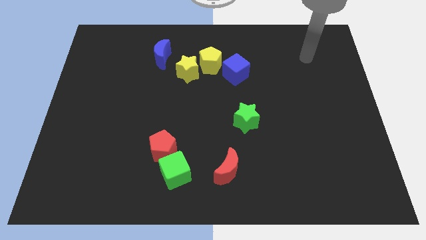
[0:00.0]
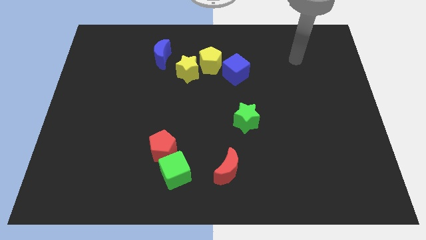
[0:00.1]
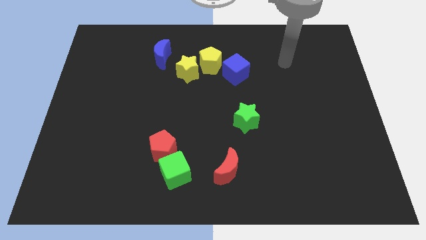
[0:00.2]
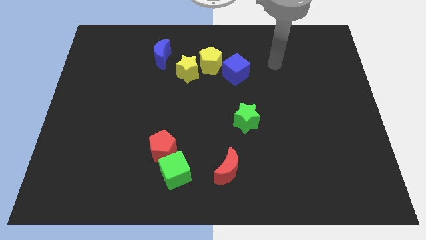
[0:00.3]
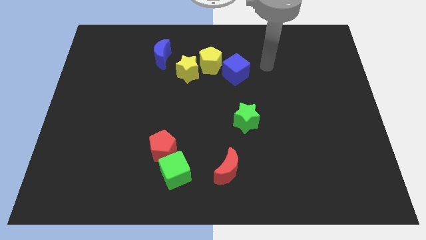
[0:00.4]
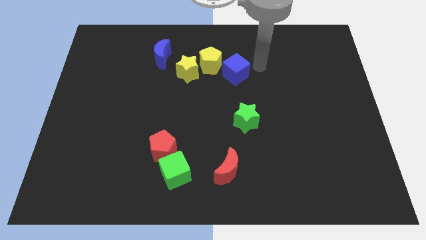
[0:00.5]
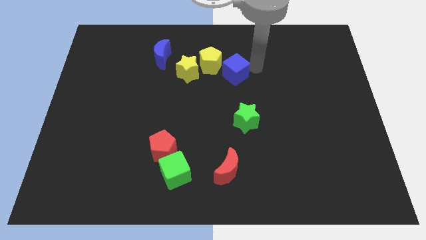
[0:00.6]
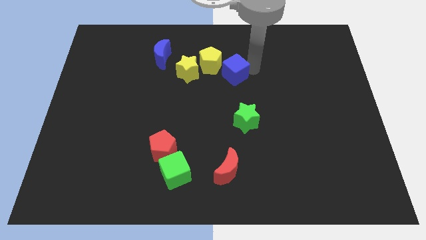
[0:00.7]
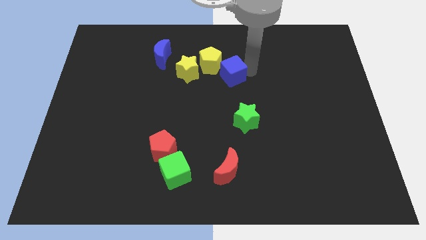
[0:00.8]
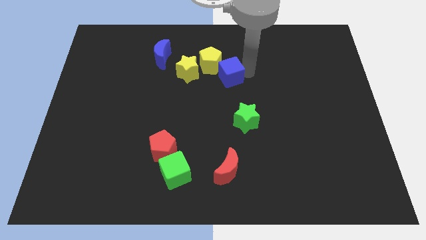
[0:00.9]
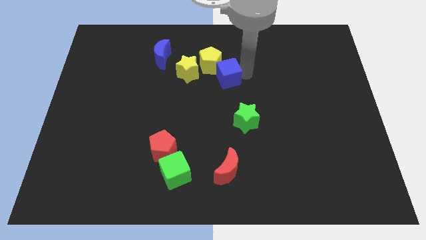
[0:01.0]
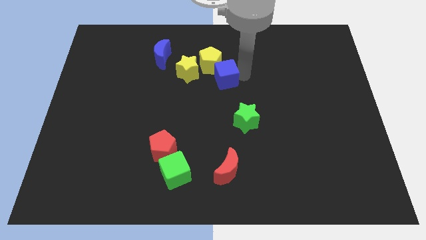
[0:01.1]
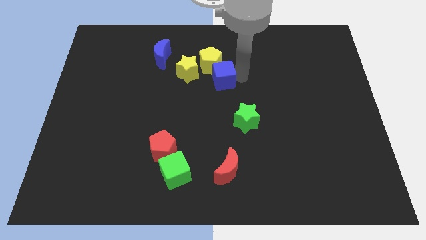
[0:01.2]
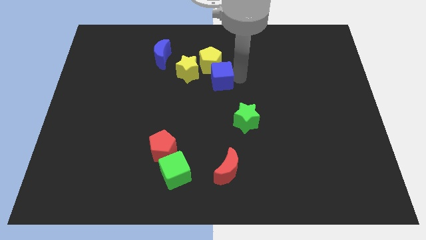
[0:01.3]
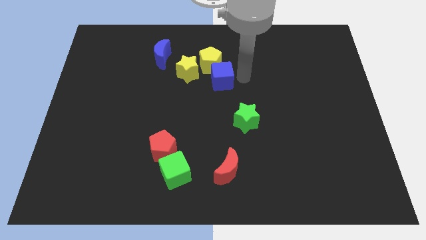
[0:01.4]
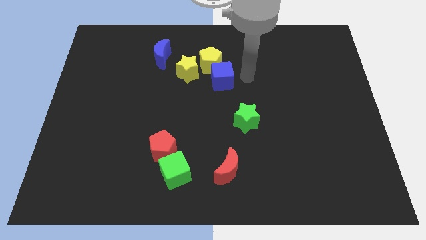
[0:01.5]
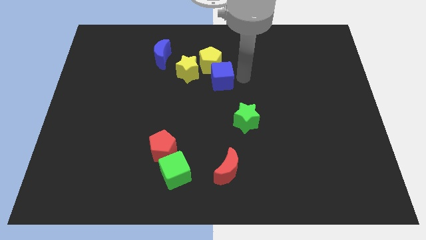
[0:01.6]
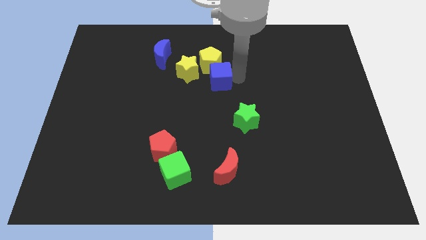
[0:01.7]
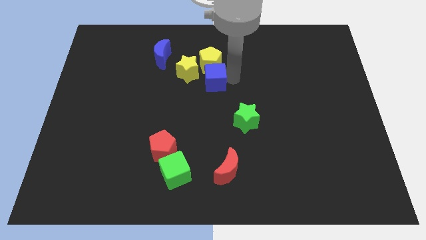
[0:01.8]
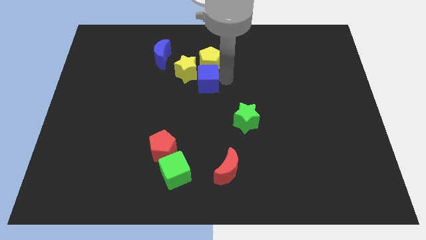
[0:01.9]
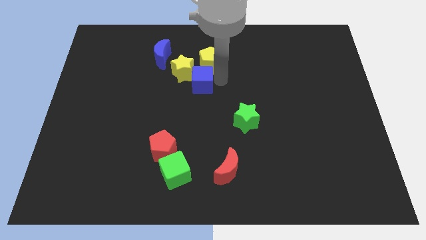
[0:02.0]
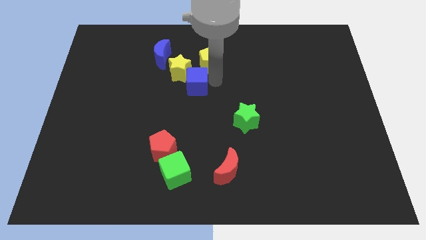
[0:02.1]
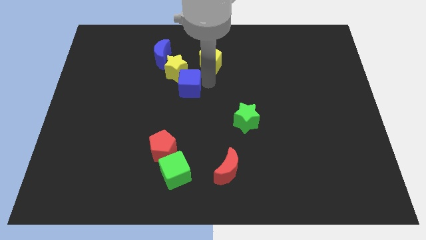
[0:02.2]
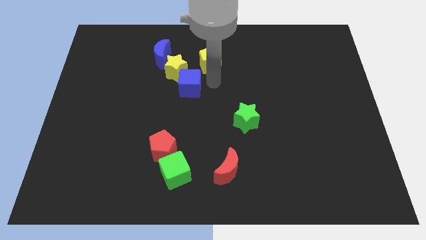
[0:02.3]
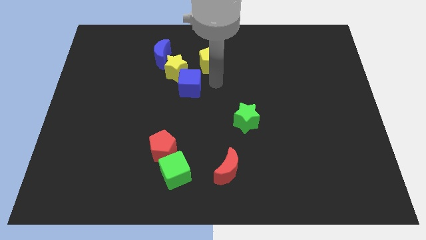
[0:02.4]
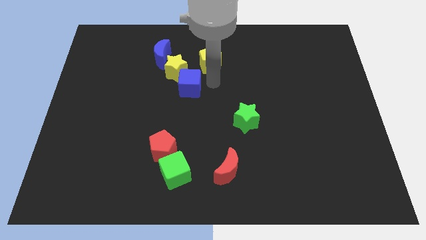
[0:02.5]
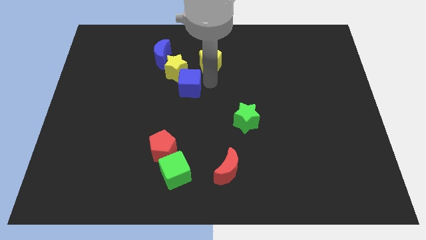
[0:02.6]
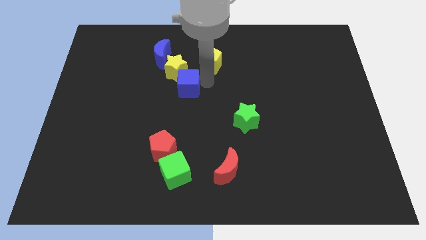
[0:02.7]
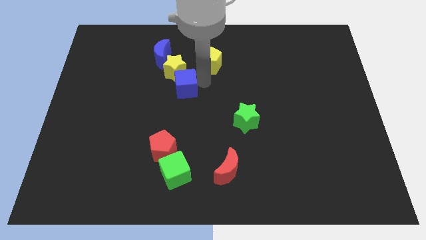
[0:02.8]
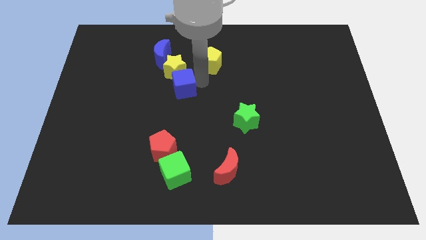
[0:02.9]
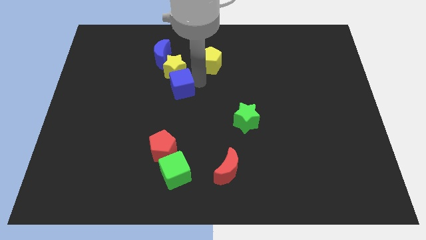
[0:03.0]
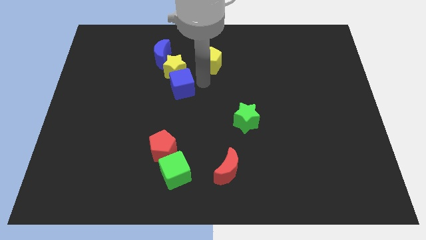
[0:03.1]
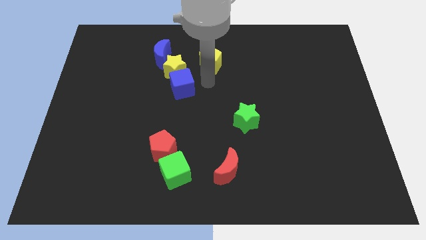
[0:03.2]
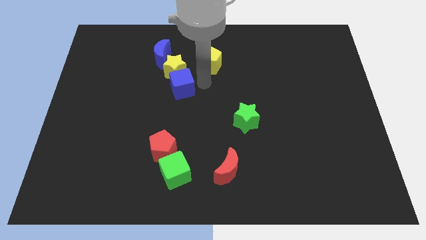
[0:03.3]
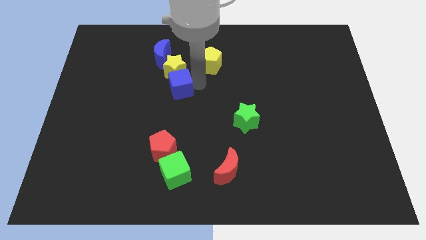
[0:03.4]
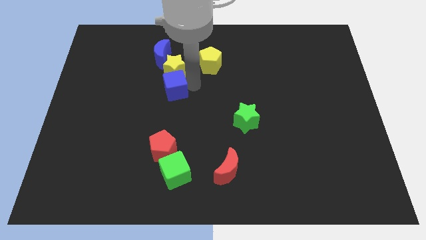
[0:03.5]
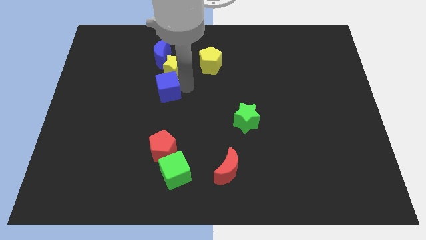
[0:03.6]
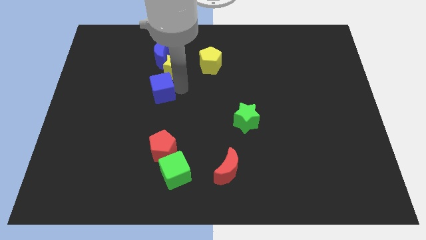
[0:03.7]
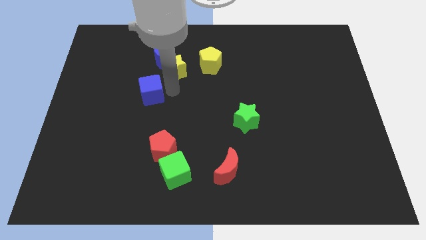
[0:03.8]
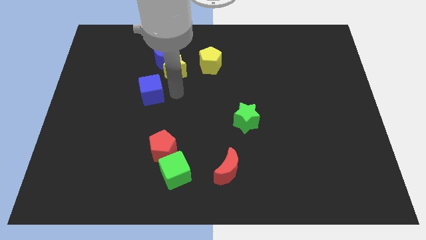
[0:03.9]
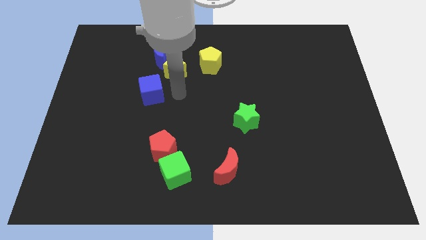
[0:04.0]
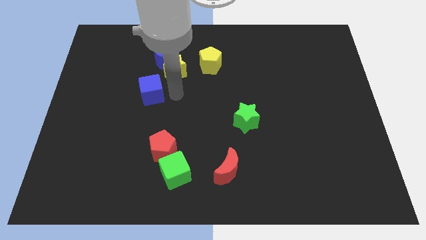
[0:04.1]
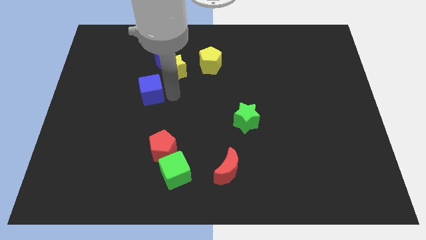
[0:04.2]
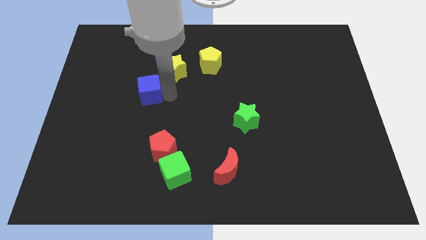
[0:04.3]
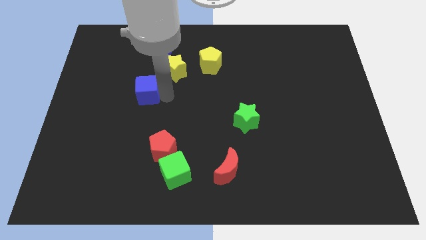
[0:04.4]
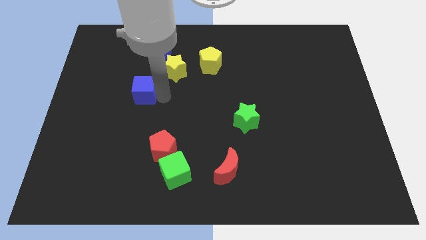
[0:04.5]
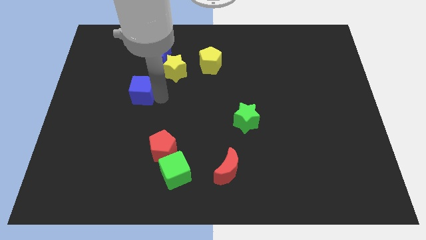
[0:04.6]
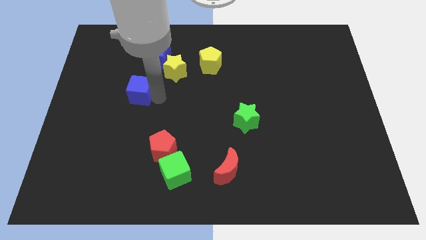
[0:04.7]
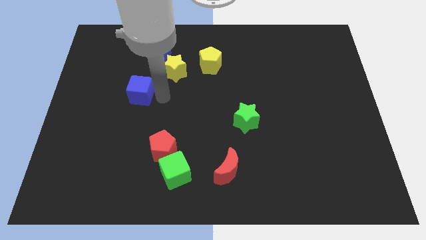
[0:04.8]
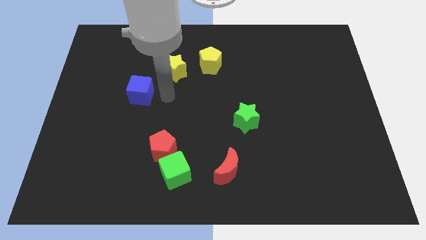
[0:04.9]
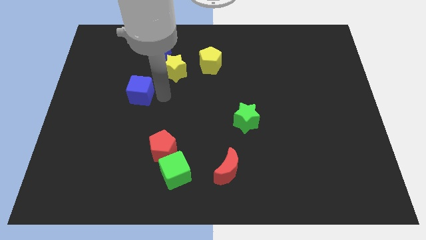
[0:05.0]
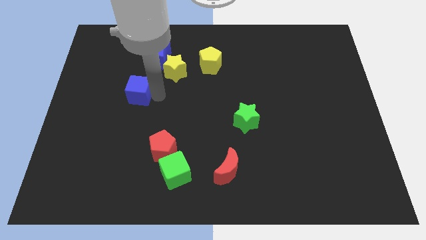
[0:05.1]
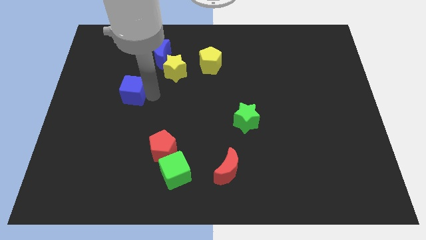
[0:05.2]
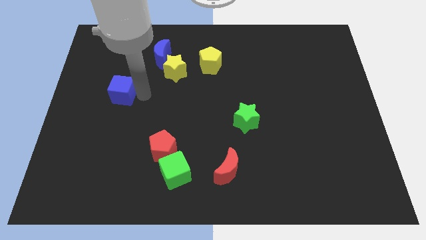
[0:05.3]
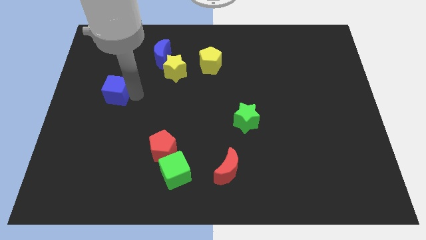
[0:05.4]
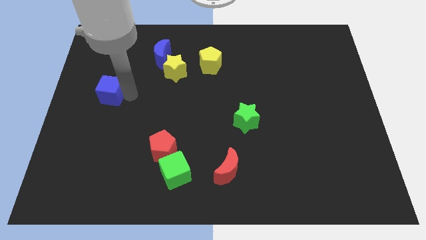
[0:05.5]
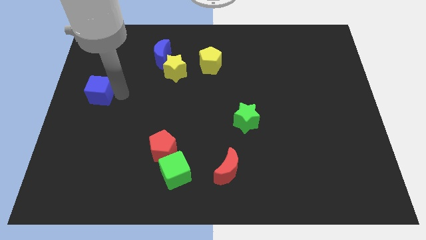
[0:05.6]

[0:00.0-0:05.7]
slide the blue cube to the left side of the board
